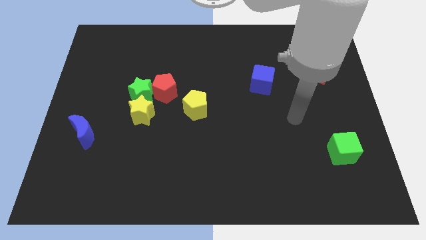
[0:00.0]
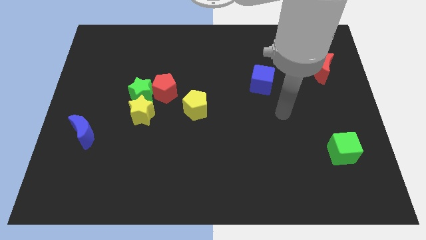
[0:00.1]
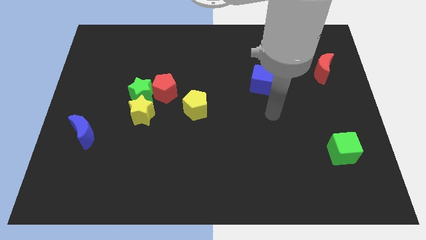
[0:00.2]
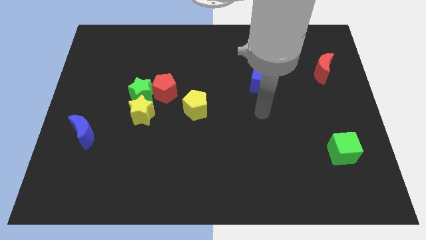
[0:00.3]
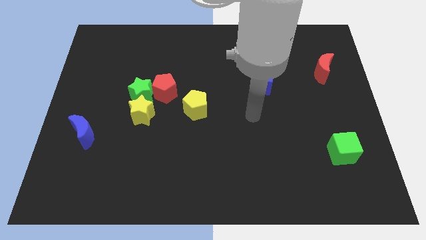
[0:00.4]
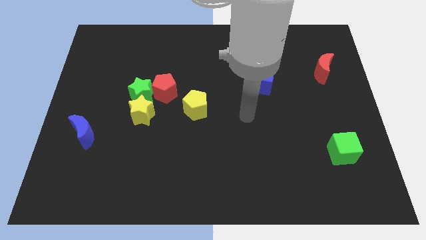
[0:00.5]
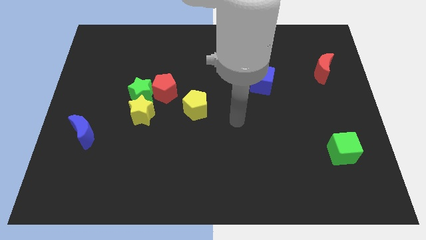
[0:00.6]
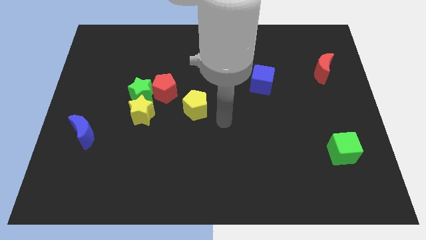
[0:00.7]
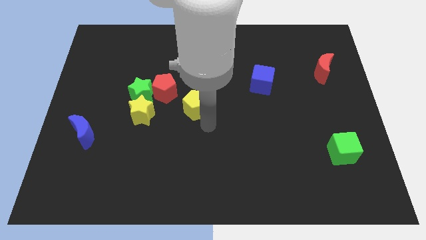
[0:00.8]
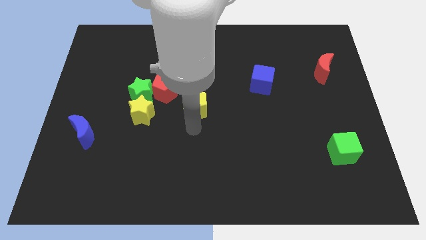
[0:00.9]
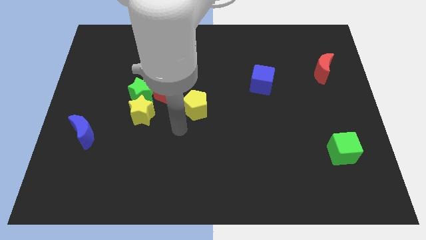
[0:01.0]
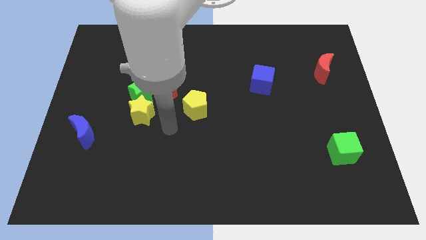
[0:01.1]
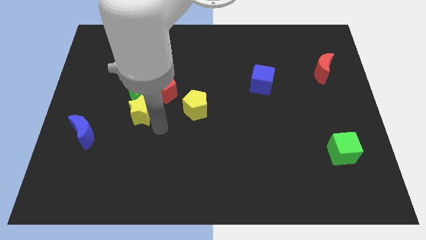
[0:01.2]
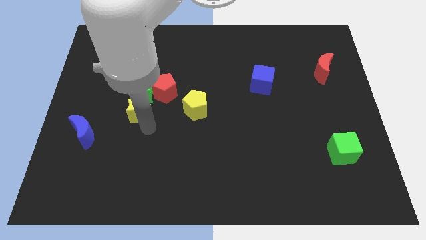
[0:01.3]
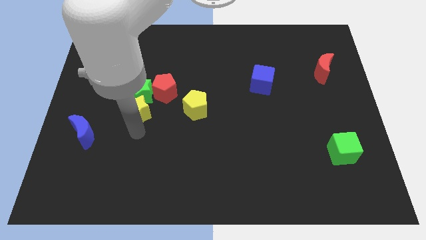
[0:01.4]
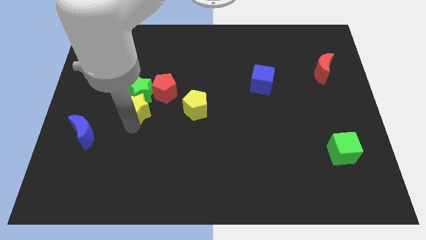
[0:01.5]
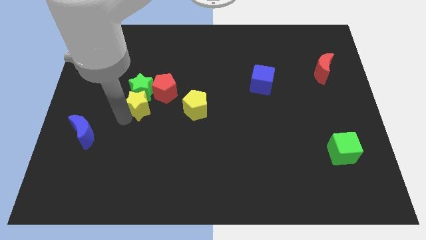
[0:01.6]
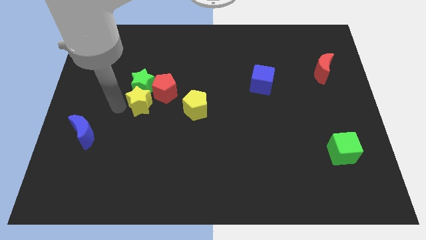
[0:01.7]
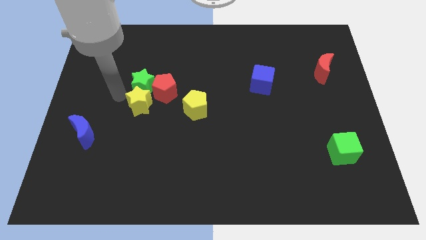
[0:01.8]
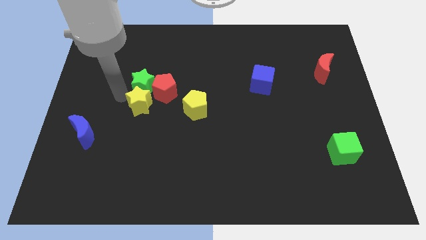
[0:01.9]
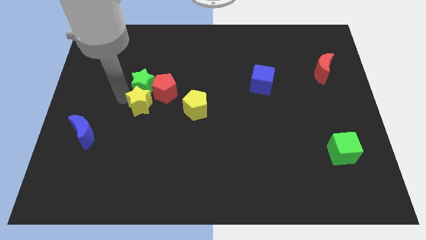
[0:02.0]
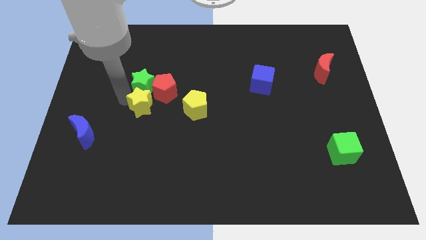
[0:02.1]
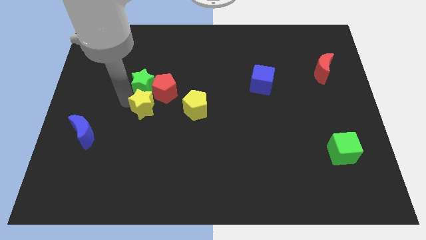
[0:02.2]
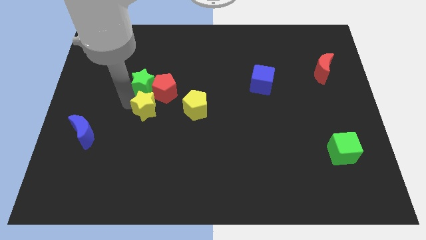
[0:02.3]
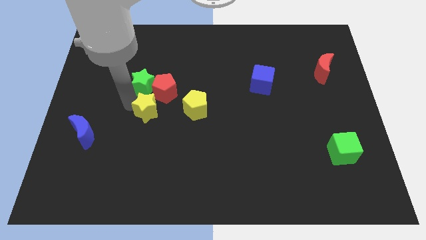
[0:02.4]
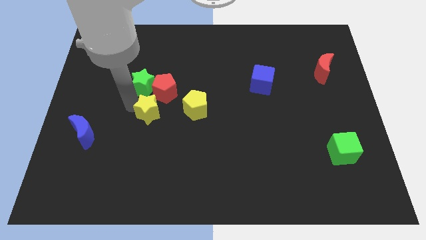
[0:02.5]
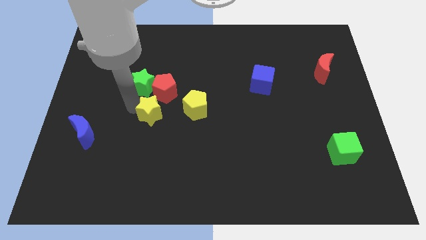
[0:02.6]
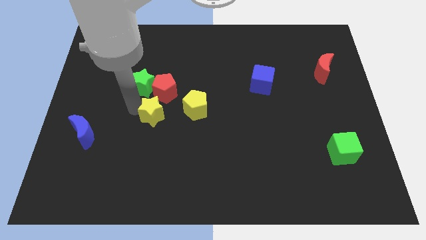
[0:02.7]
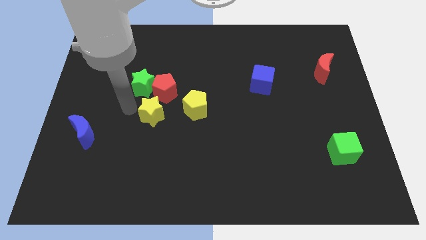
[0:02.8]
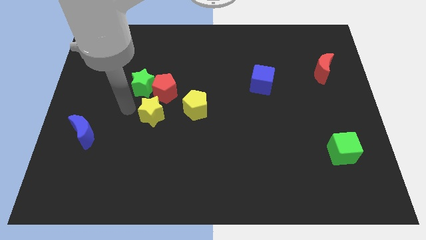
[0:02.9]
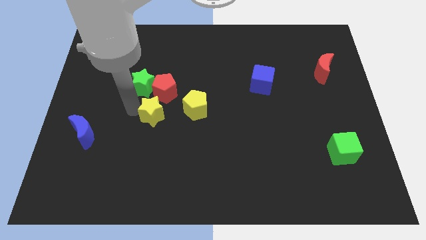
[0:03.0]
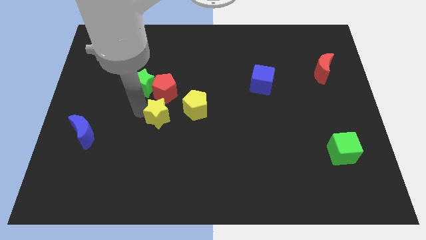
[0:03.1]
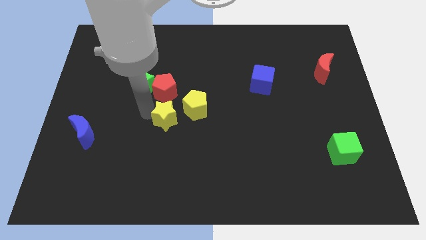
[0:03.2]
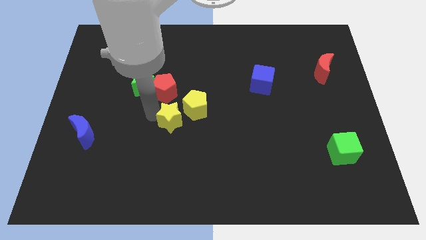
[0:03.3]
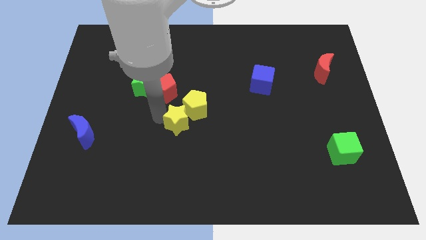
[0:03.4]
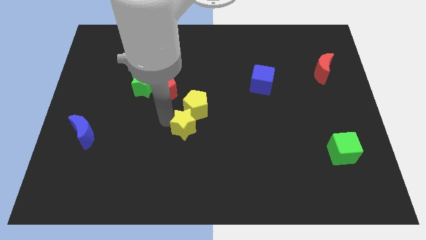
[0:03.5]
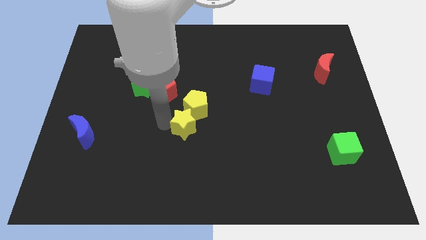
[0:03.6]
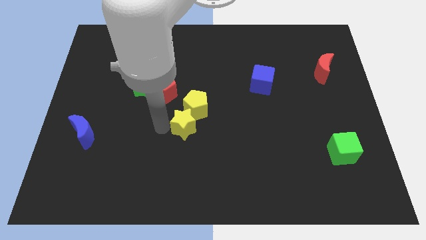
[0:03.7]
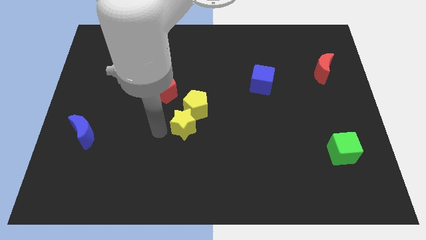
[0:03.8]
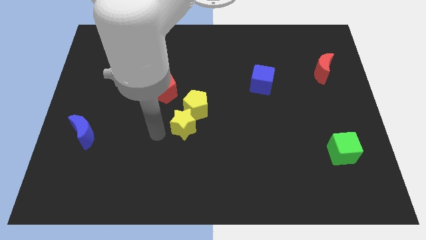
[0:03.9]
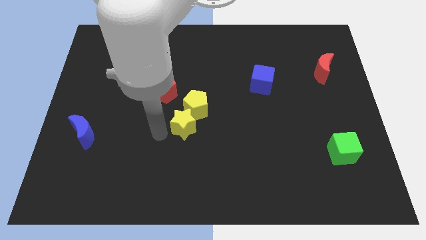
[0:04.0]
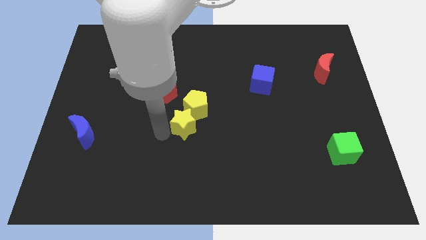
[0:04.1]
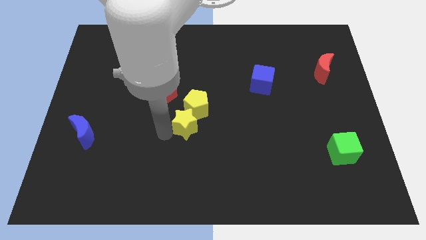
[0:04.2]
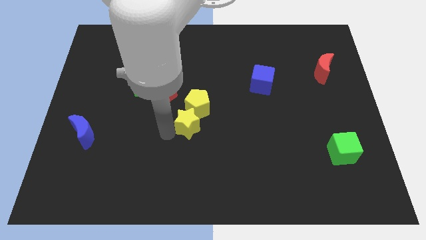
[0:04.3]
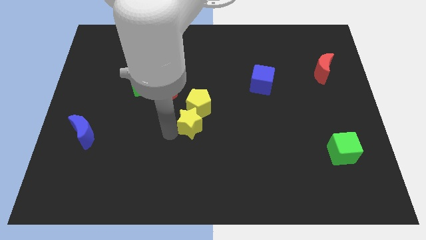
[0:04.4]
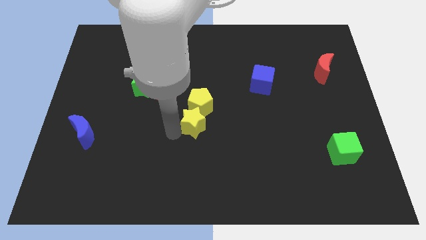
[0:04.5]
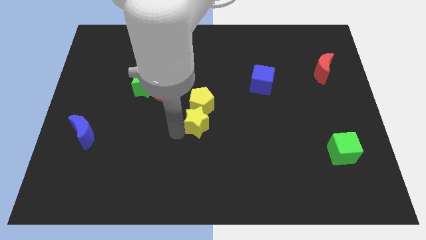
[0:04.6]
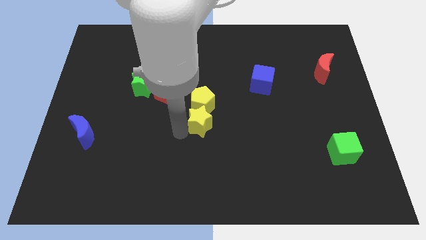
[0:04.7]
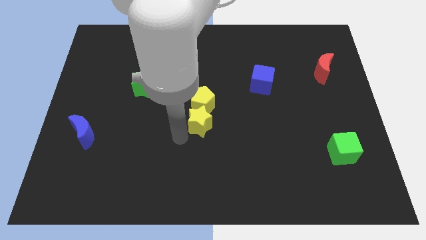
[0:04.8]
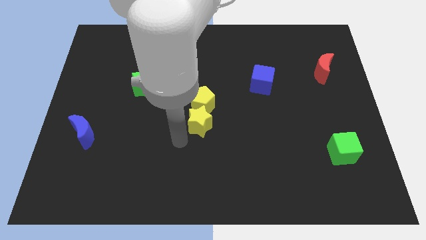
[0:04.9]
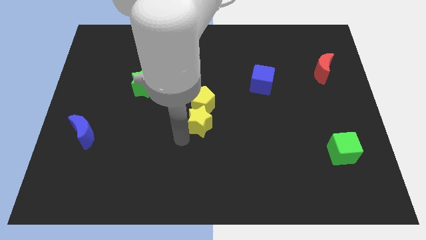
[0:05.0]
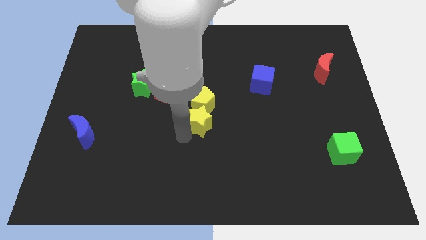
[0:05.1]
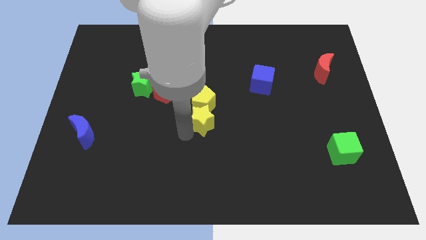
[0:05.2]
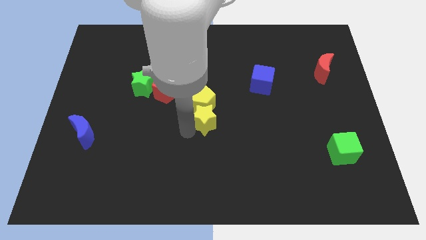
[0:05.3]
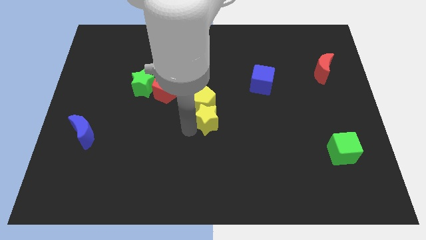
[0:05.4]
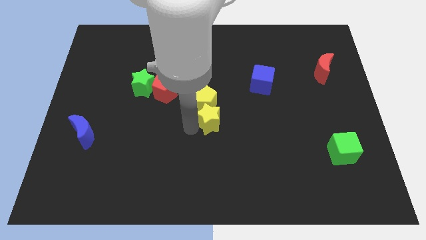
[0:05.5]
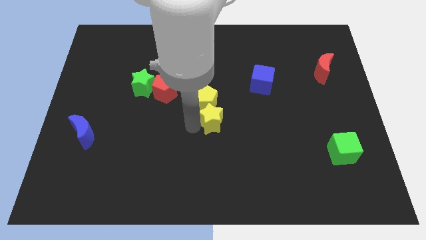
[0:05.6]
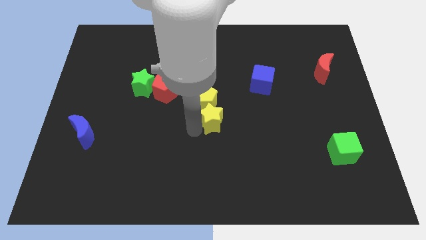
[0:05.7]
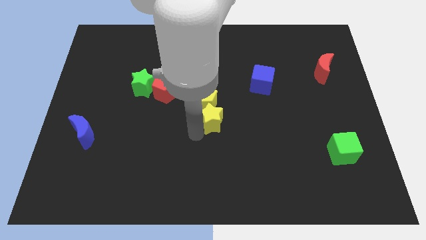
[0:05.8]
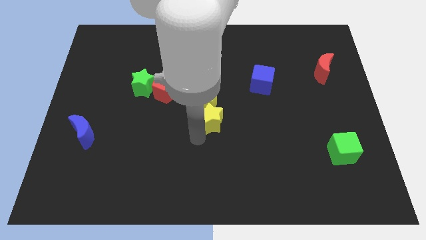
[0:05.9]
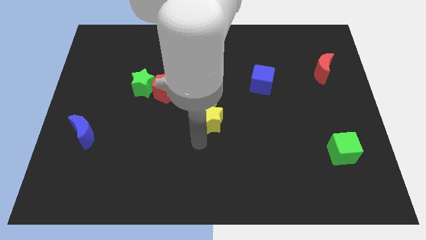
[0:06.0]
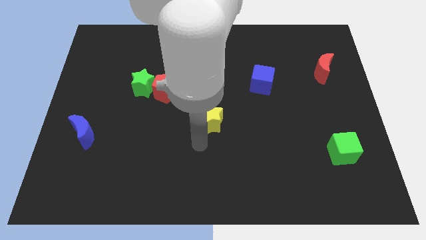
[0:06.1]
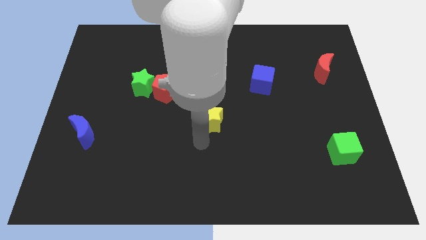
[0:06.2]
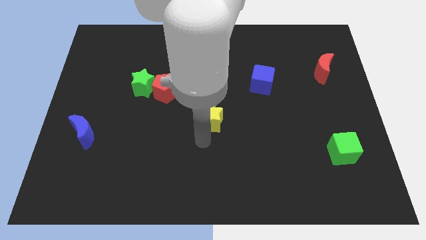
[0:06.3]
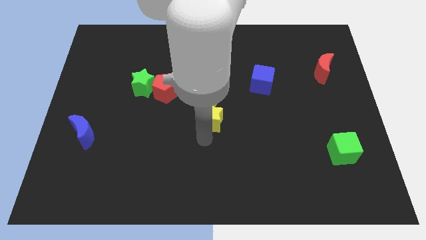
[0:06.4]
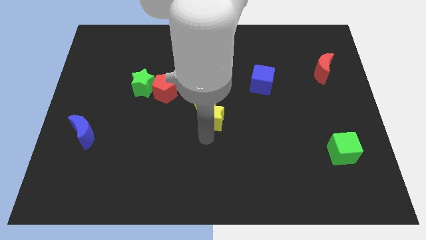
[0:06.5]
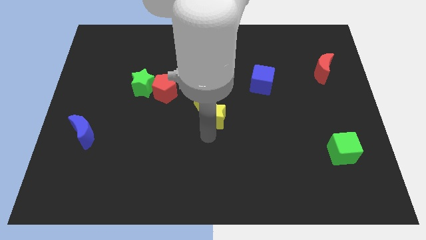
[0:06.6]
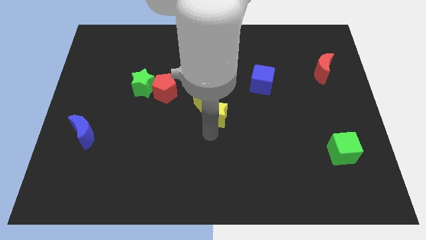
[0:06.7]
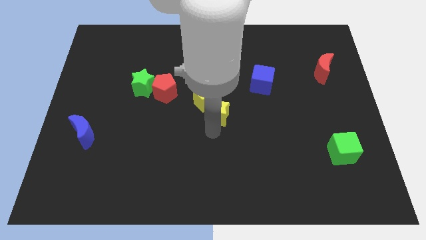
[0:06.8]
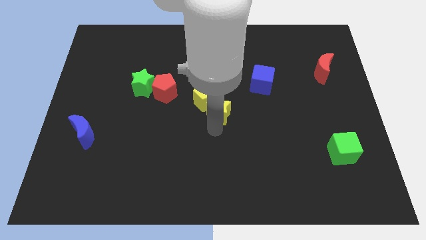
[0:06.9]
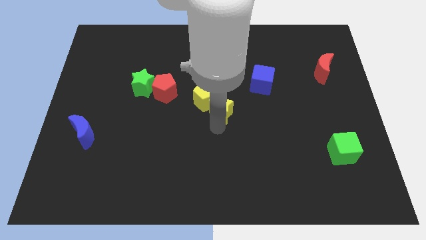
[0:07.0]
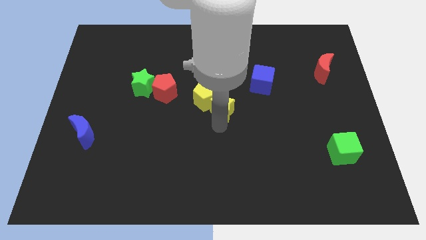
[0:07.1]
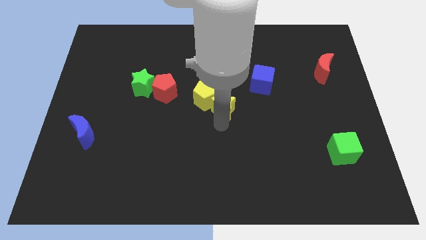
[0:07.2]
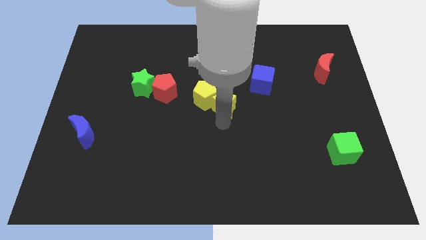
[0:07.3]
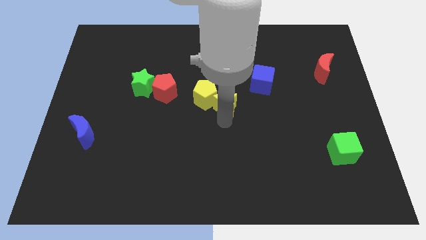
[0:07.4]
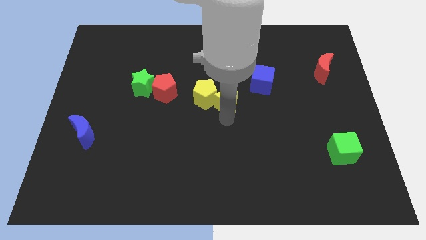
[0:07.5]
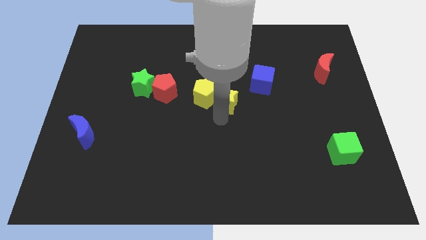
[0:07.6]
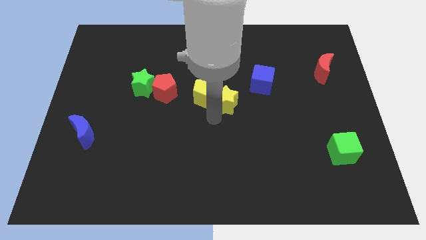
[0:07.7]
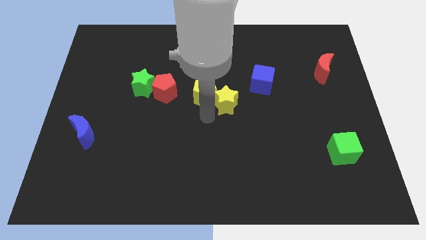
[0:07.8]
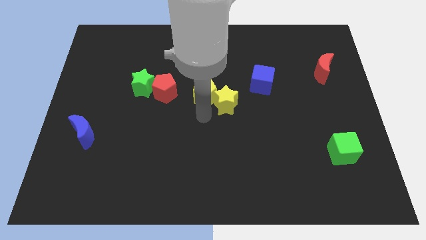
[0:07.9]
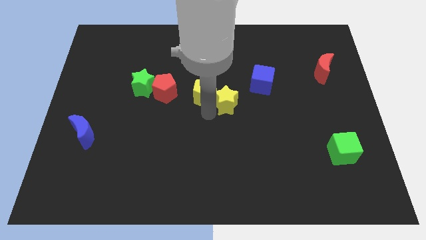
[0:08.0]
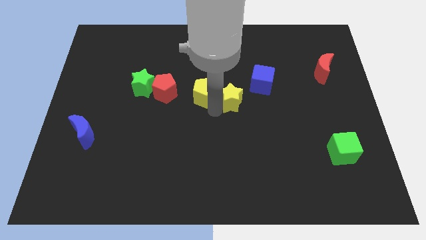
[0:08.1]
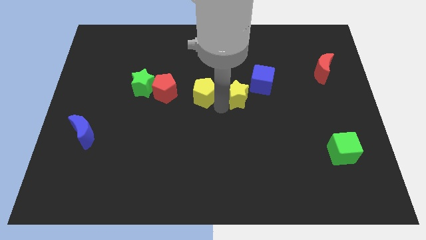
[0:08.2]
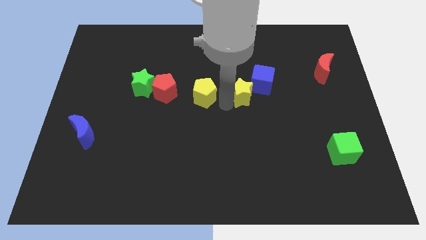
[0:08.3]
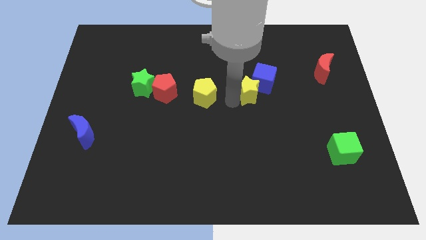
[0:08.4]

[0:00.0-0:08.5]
put the yellow star next to the blue cube
